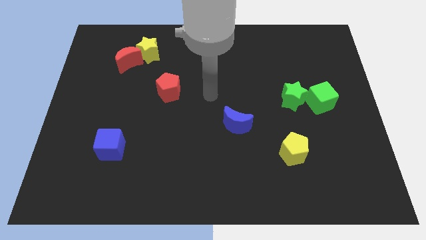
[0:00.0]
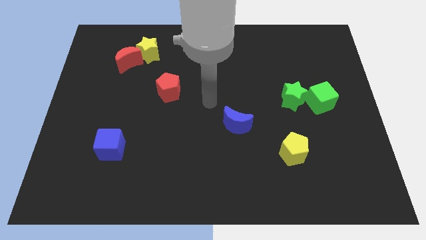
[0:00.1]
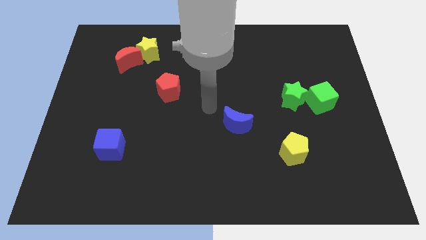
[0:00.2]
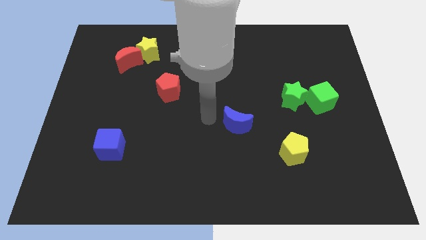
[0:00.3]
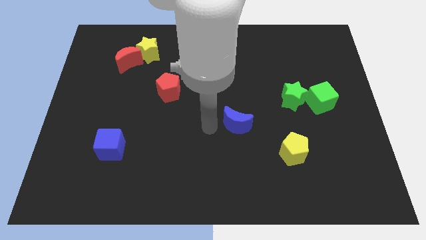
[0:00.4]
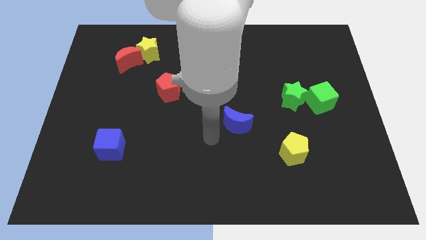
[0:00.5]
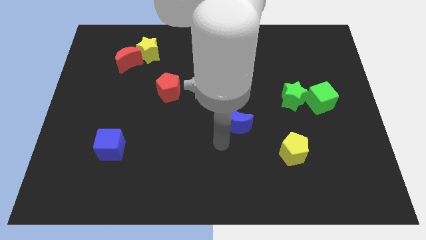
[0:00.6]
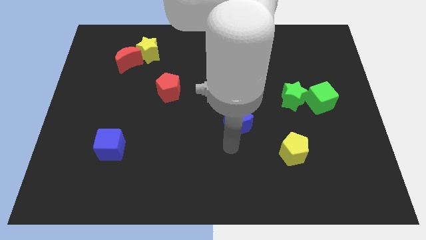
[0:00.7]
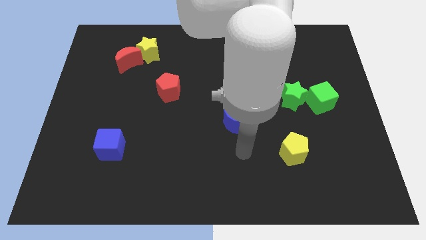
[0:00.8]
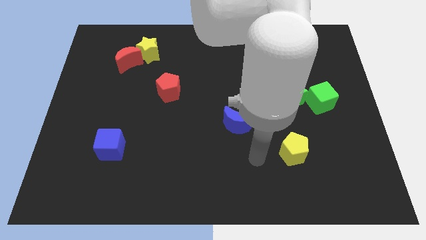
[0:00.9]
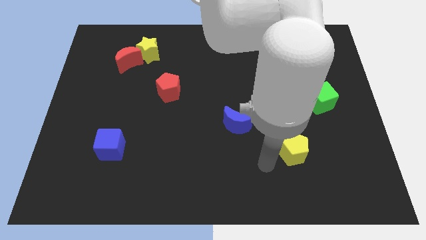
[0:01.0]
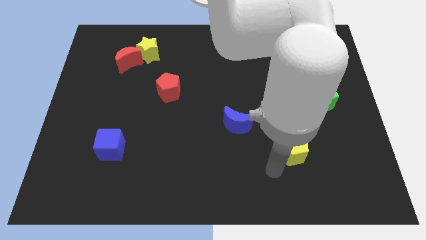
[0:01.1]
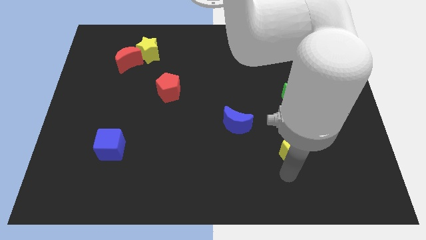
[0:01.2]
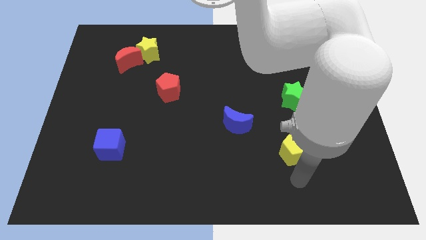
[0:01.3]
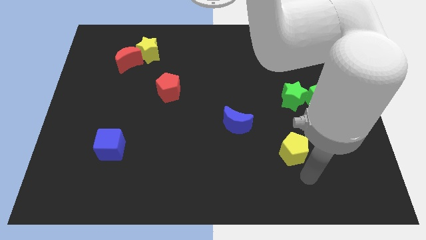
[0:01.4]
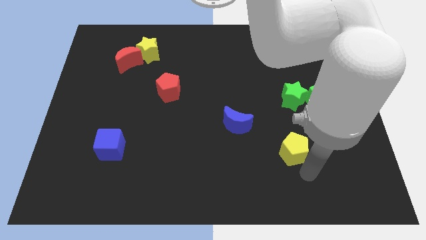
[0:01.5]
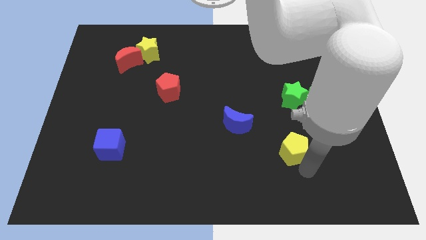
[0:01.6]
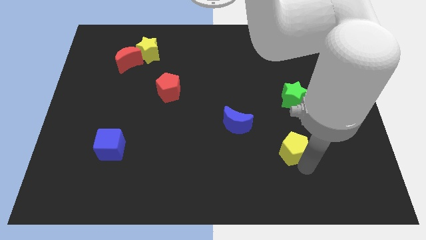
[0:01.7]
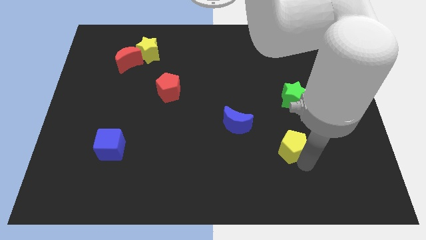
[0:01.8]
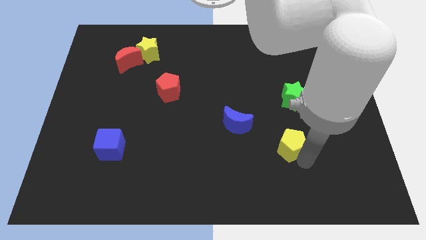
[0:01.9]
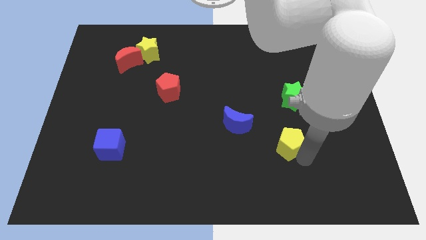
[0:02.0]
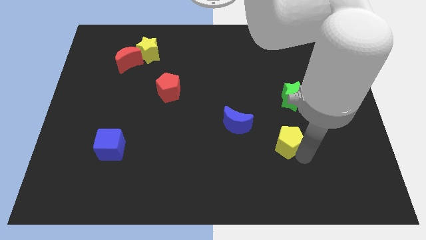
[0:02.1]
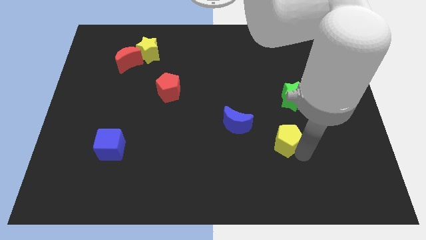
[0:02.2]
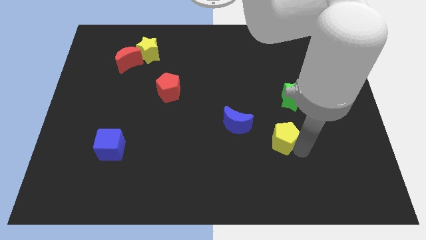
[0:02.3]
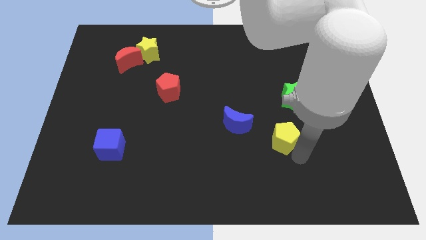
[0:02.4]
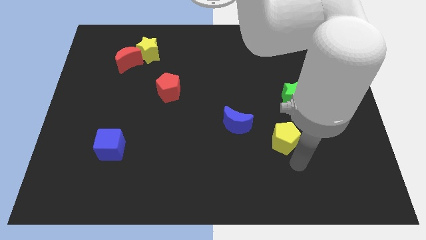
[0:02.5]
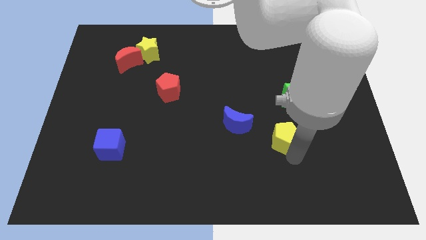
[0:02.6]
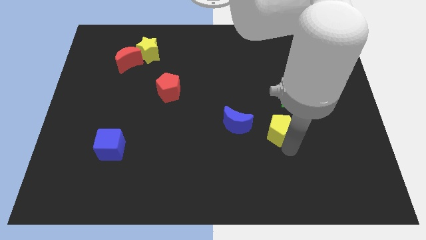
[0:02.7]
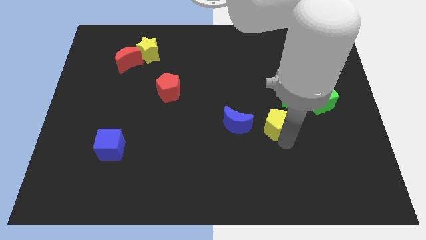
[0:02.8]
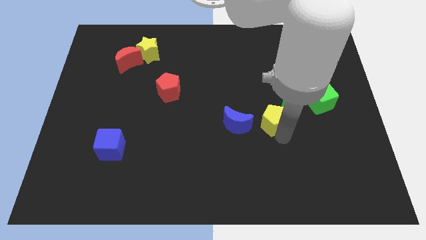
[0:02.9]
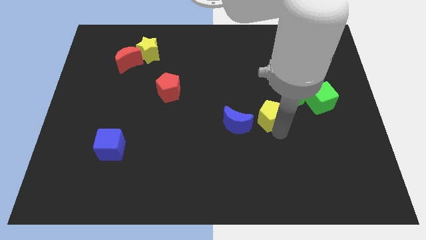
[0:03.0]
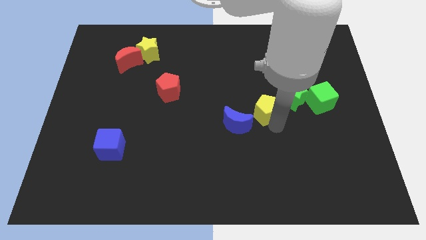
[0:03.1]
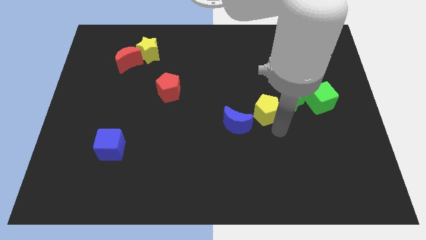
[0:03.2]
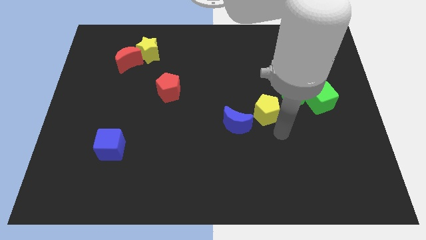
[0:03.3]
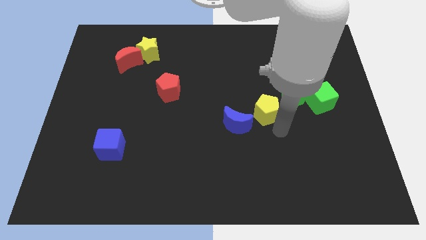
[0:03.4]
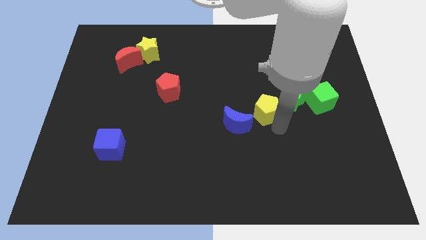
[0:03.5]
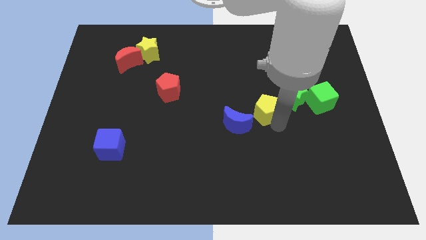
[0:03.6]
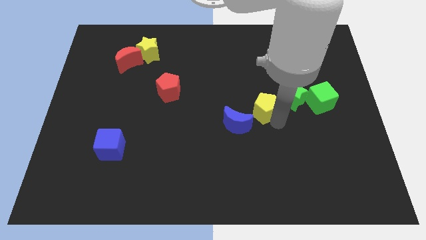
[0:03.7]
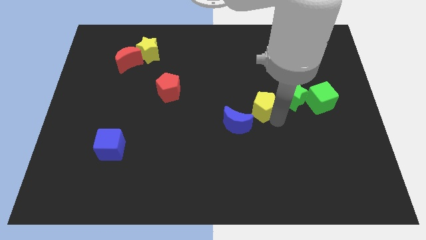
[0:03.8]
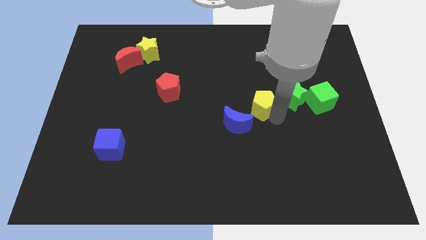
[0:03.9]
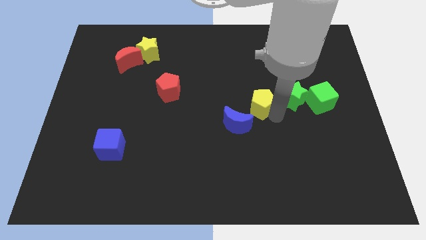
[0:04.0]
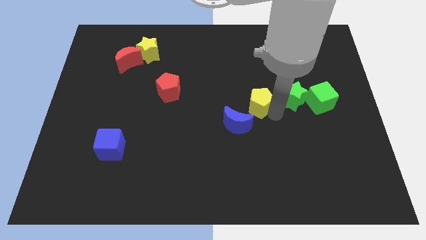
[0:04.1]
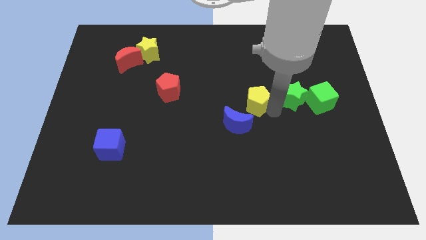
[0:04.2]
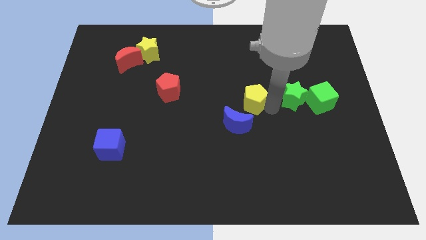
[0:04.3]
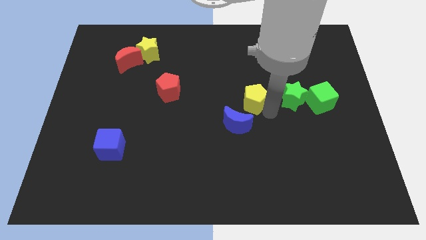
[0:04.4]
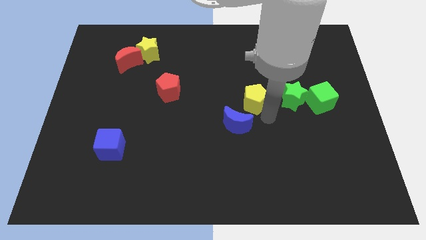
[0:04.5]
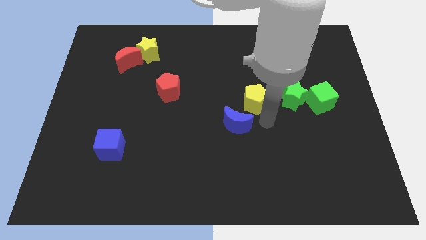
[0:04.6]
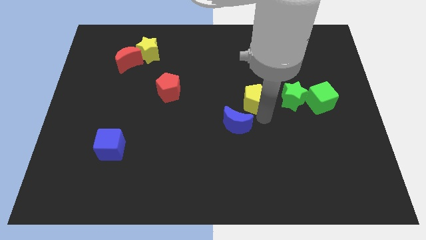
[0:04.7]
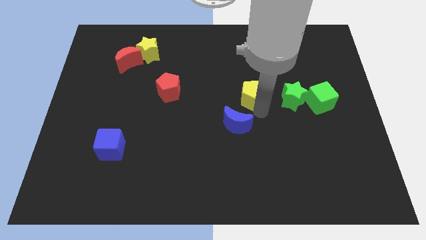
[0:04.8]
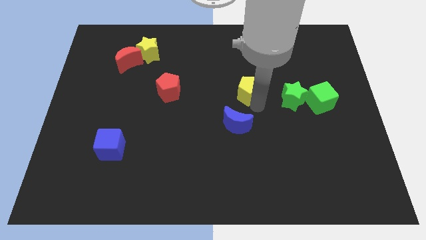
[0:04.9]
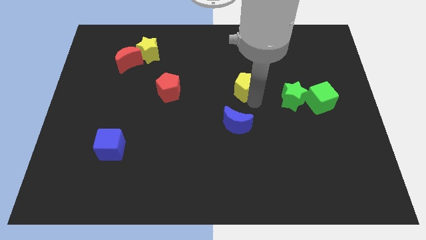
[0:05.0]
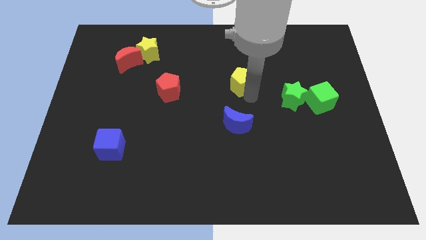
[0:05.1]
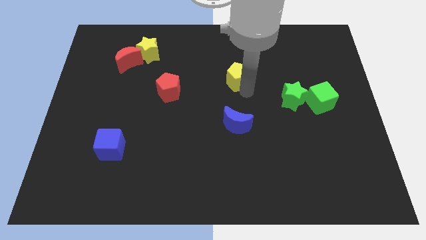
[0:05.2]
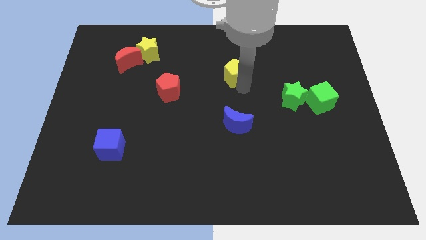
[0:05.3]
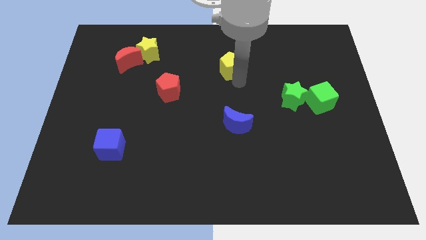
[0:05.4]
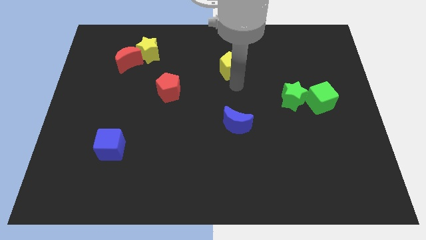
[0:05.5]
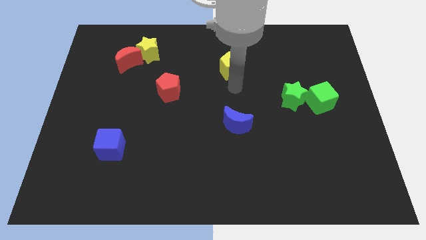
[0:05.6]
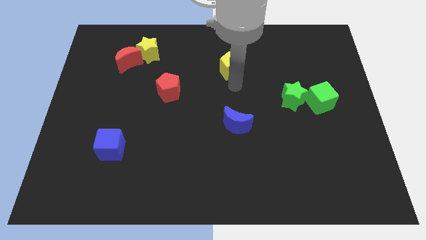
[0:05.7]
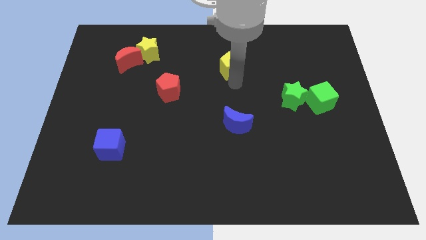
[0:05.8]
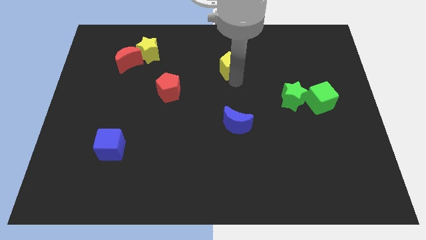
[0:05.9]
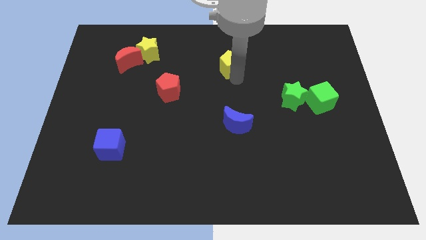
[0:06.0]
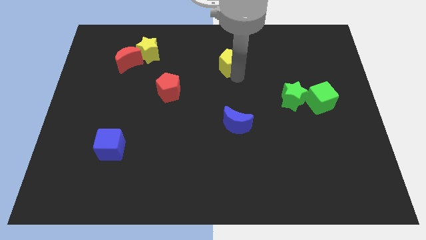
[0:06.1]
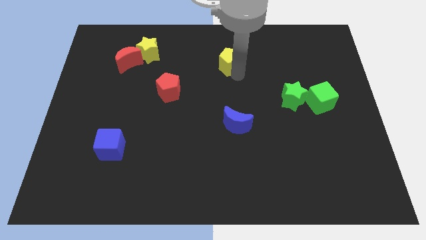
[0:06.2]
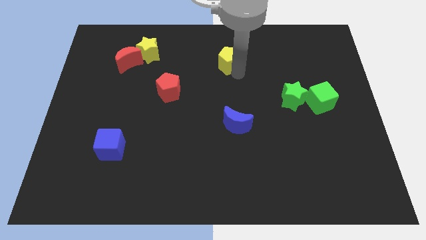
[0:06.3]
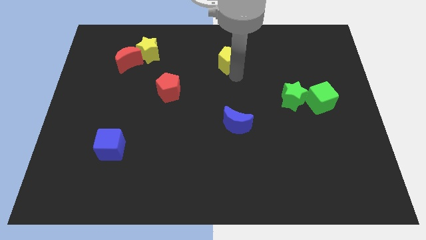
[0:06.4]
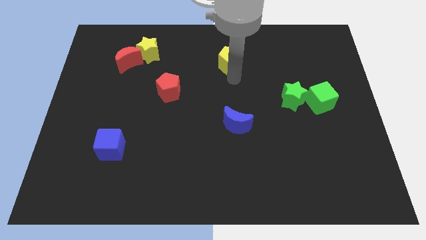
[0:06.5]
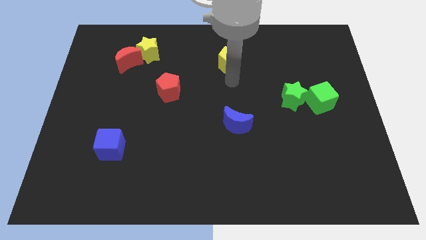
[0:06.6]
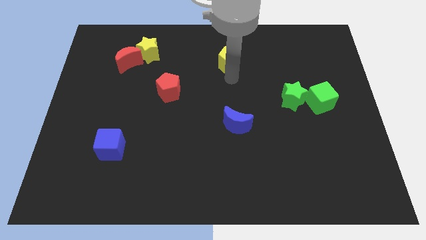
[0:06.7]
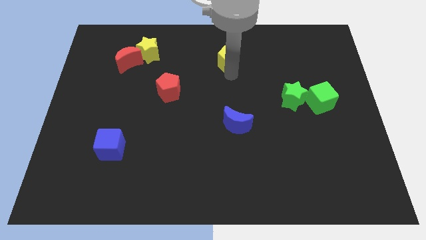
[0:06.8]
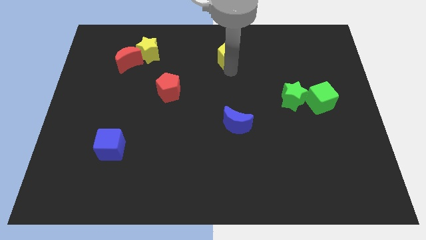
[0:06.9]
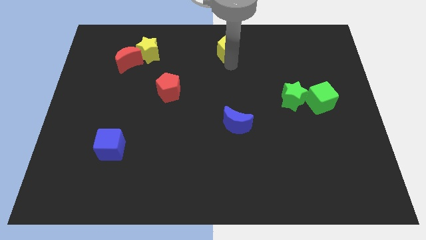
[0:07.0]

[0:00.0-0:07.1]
push the yellow pentagon to the towards your base
